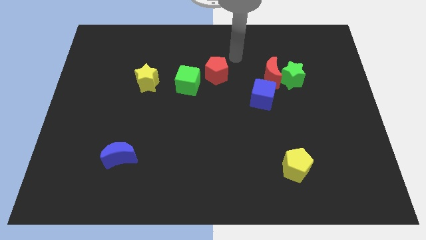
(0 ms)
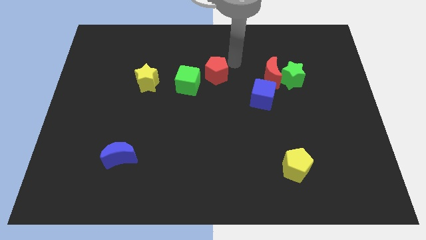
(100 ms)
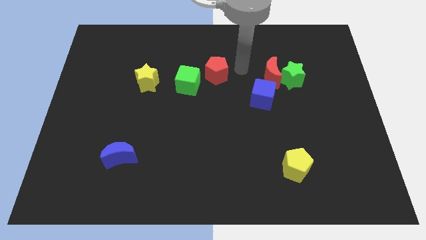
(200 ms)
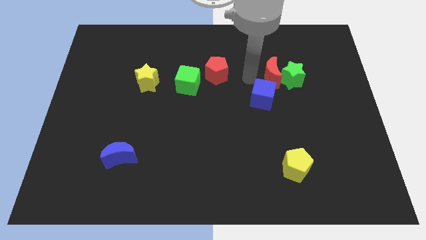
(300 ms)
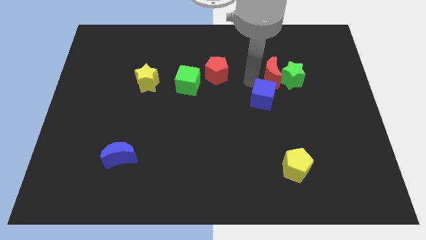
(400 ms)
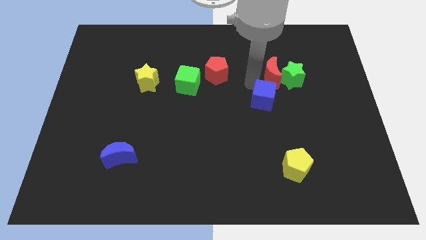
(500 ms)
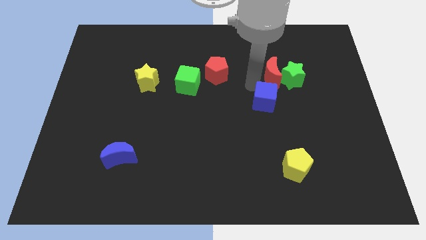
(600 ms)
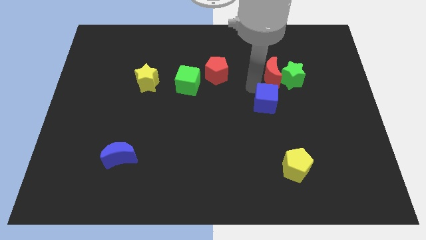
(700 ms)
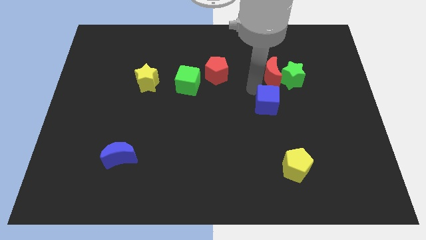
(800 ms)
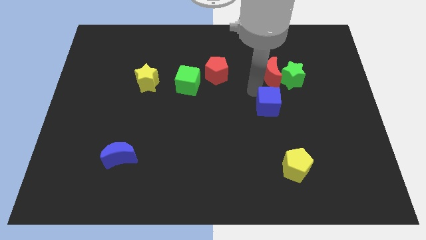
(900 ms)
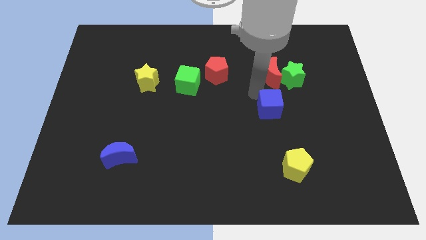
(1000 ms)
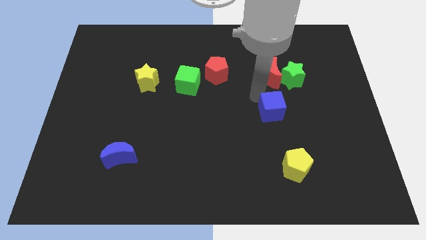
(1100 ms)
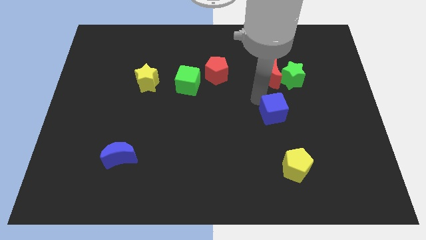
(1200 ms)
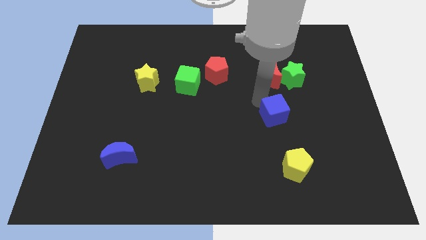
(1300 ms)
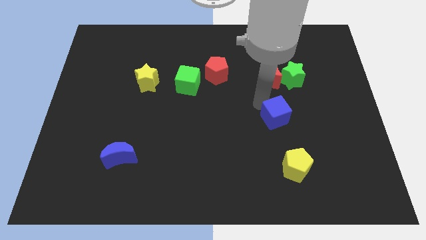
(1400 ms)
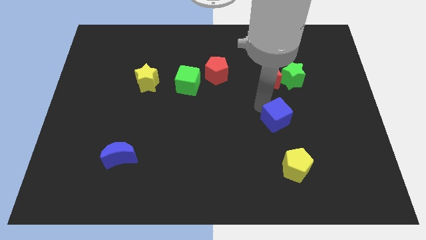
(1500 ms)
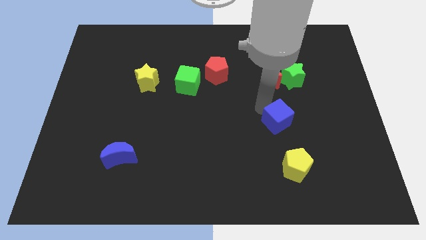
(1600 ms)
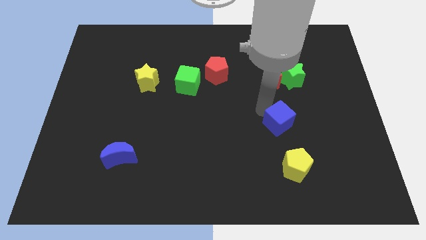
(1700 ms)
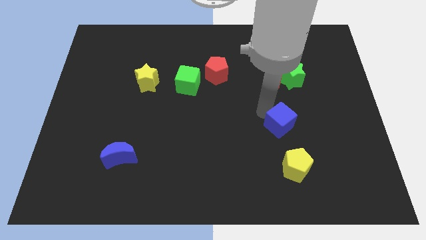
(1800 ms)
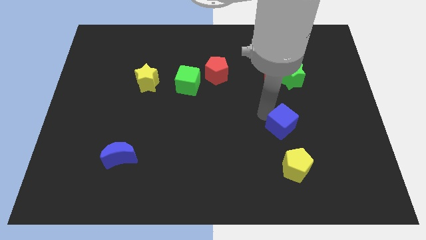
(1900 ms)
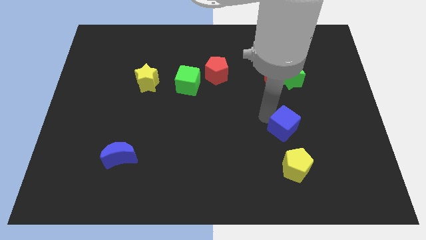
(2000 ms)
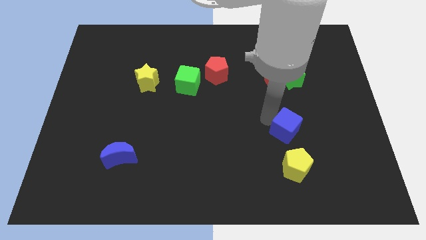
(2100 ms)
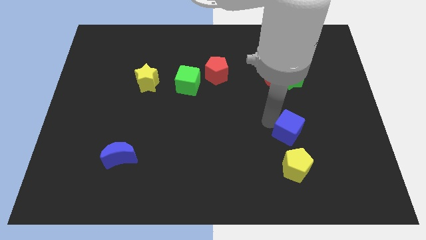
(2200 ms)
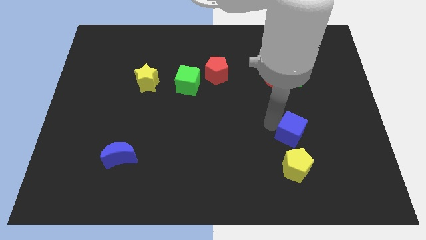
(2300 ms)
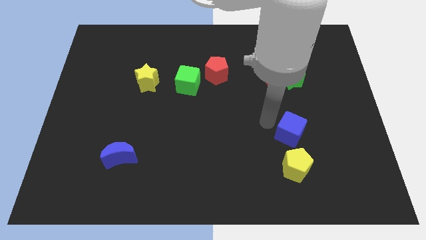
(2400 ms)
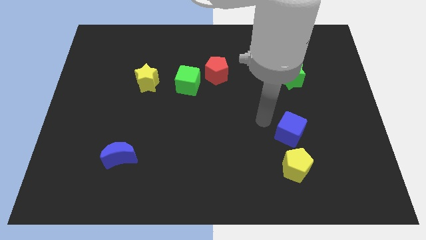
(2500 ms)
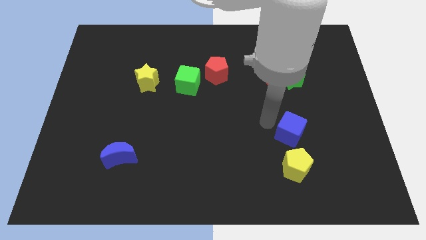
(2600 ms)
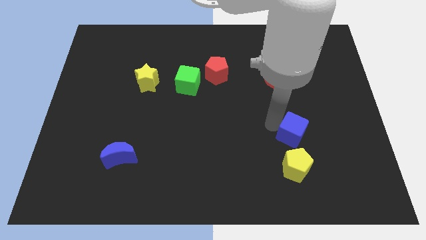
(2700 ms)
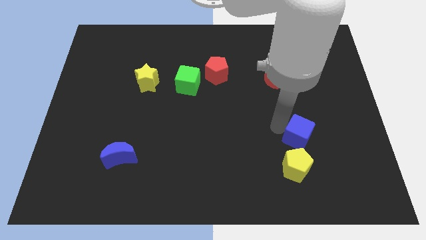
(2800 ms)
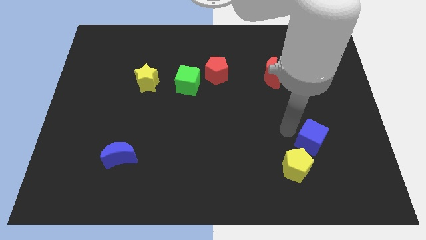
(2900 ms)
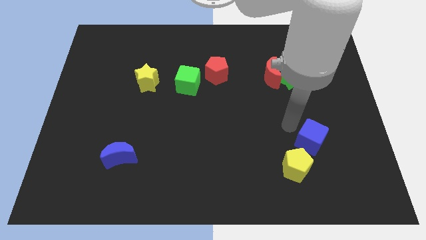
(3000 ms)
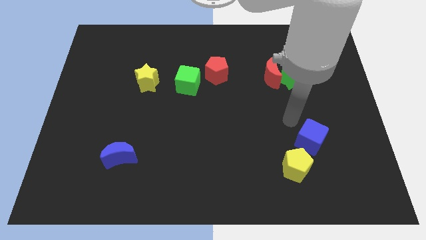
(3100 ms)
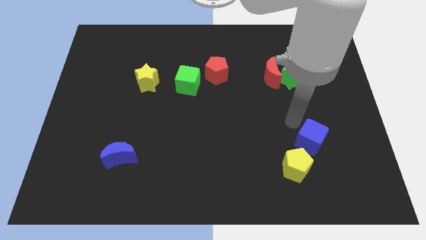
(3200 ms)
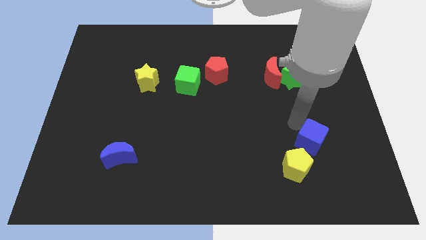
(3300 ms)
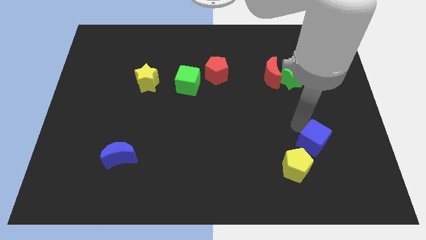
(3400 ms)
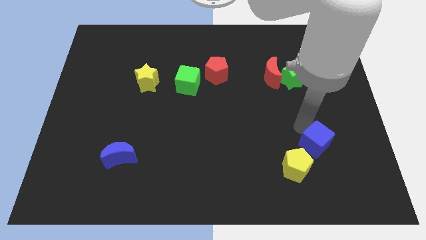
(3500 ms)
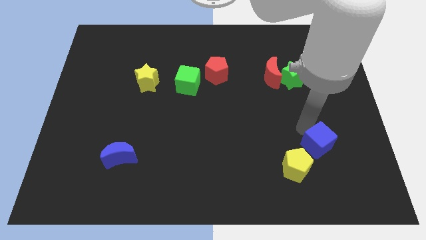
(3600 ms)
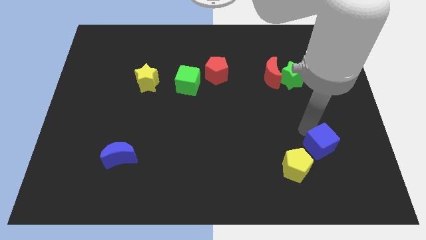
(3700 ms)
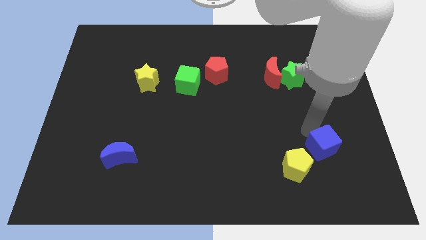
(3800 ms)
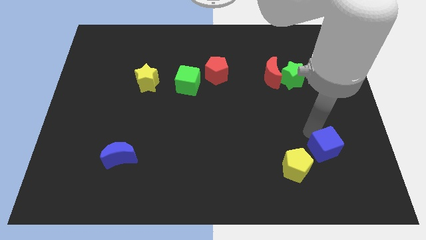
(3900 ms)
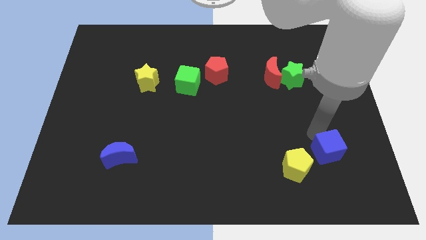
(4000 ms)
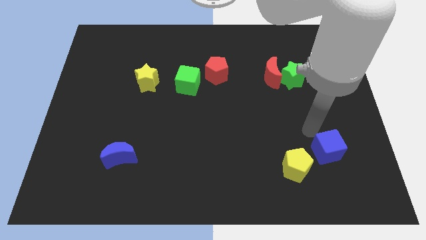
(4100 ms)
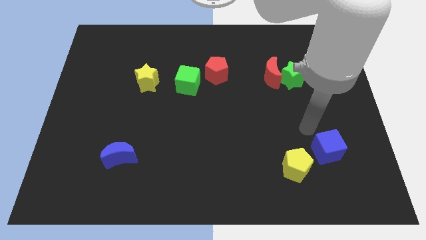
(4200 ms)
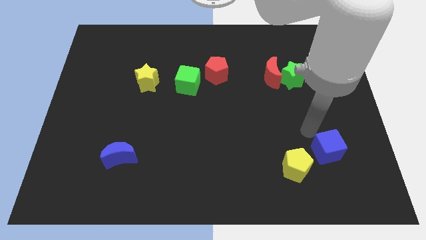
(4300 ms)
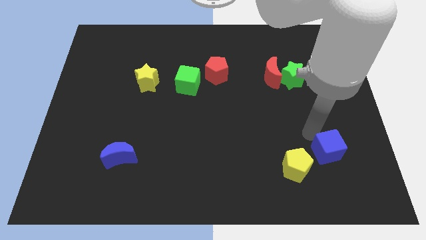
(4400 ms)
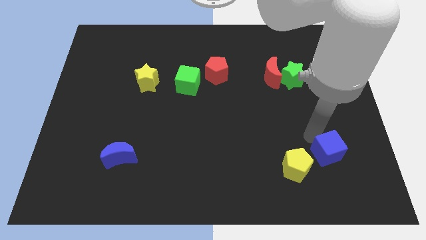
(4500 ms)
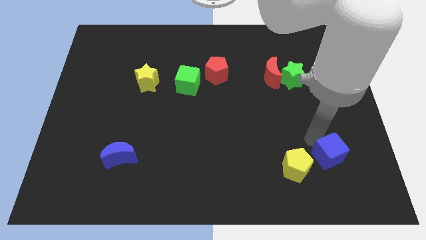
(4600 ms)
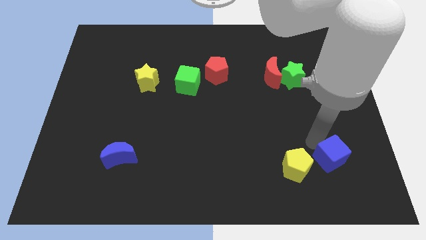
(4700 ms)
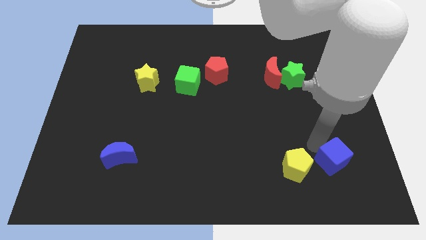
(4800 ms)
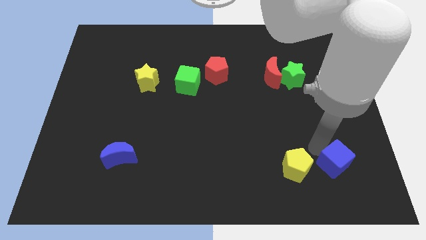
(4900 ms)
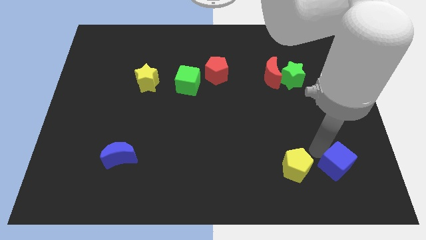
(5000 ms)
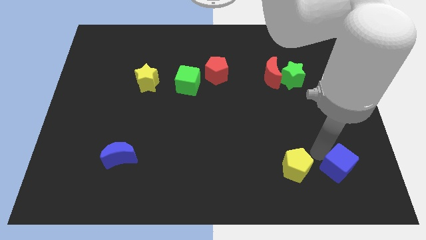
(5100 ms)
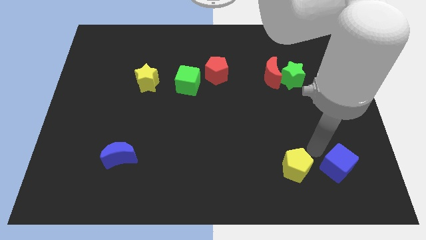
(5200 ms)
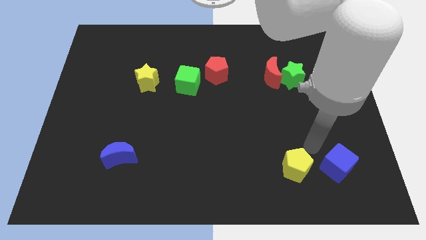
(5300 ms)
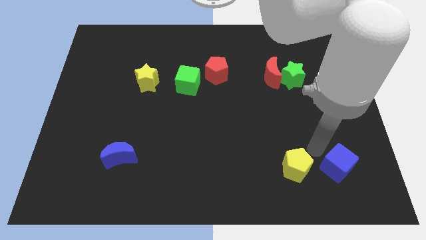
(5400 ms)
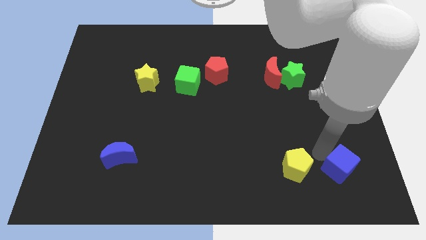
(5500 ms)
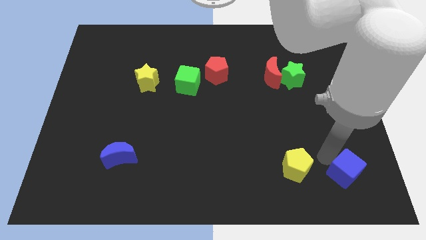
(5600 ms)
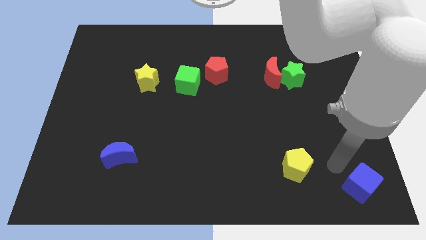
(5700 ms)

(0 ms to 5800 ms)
slide the blue cube to the bottom right
